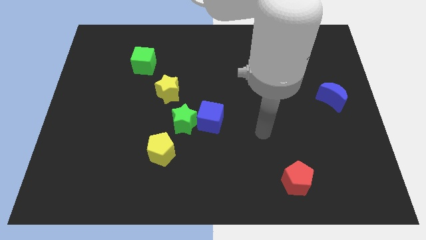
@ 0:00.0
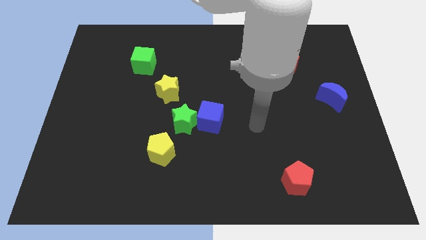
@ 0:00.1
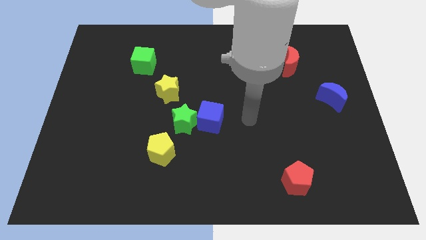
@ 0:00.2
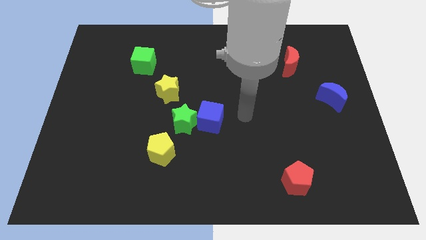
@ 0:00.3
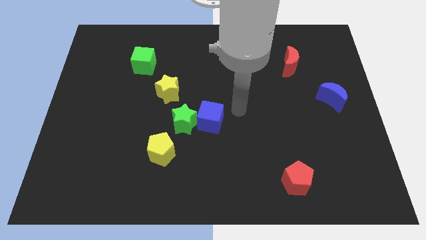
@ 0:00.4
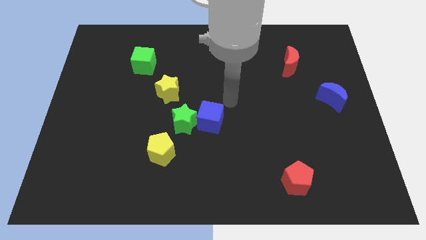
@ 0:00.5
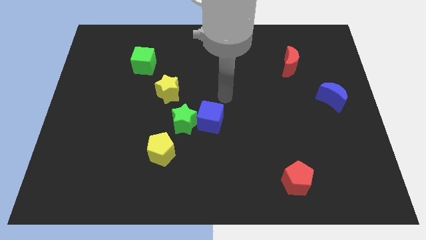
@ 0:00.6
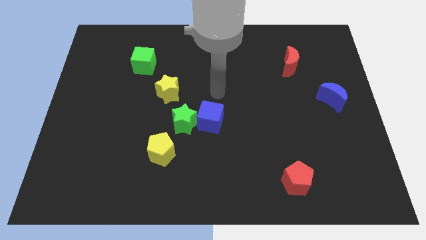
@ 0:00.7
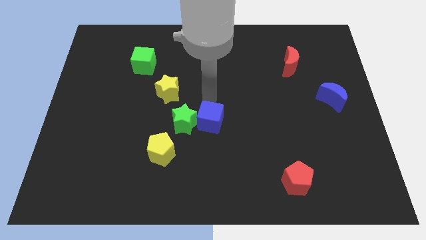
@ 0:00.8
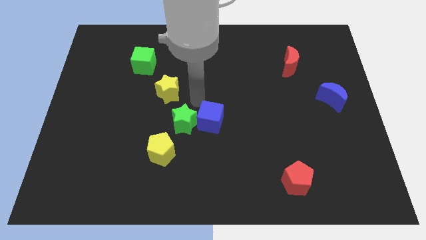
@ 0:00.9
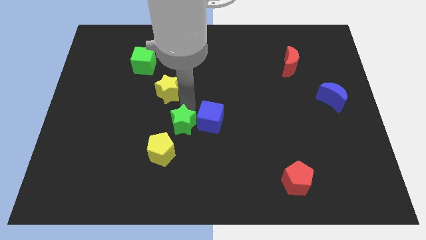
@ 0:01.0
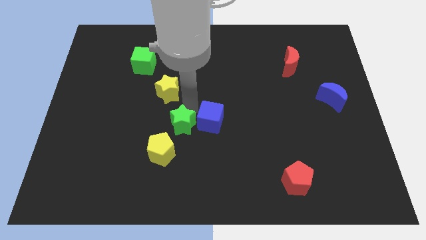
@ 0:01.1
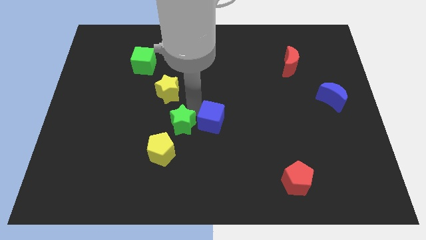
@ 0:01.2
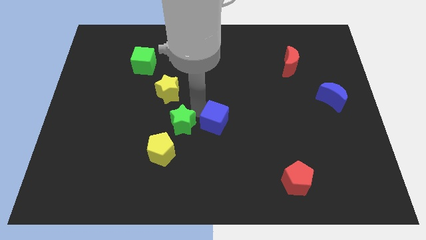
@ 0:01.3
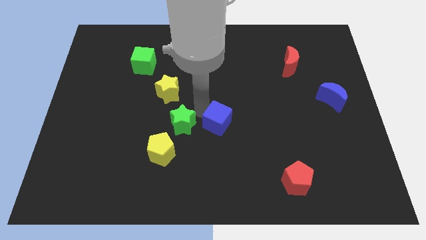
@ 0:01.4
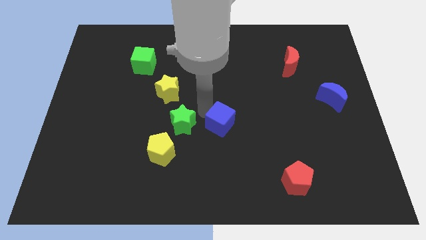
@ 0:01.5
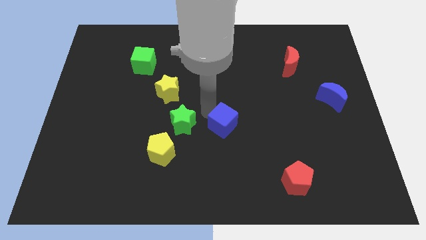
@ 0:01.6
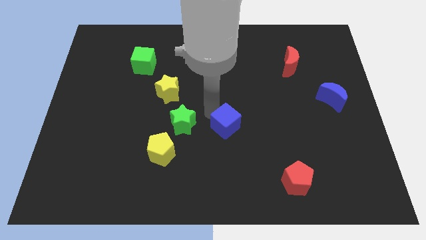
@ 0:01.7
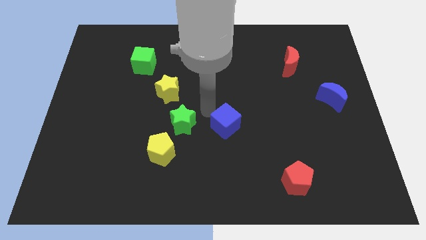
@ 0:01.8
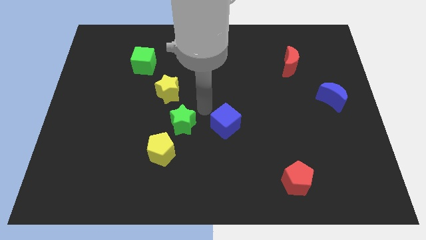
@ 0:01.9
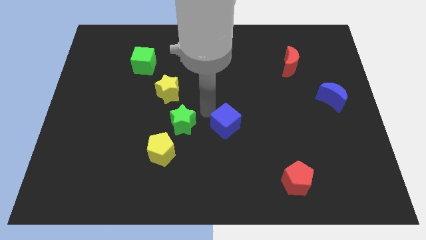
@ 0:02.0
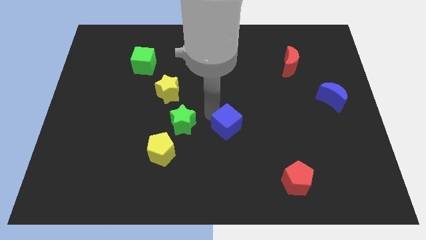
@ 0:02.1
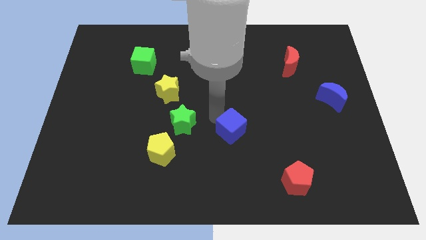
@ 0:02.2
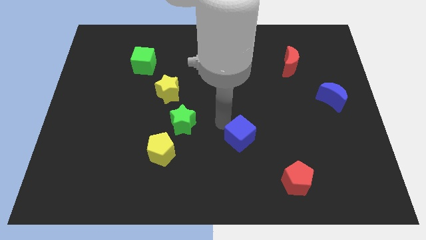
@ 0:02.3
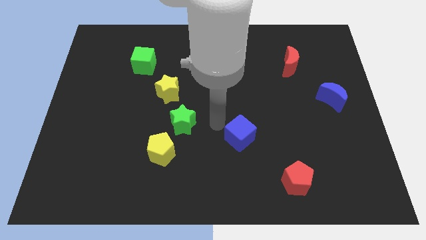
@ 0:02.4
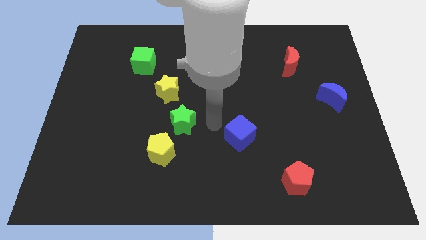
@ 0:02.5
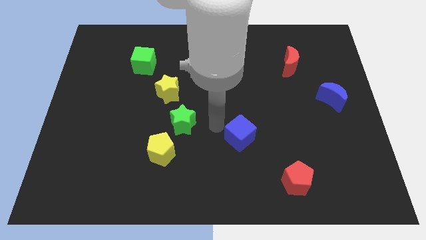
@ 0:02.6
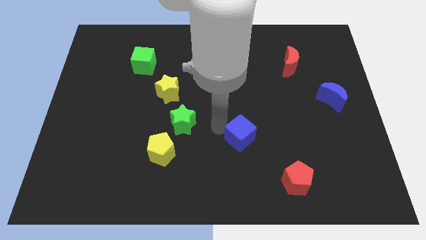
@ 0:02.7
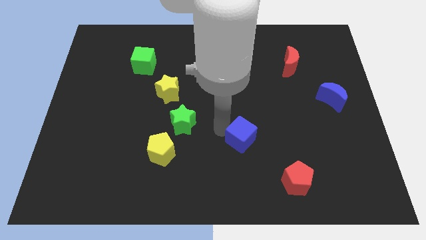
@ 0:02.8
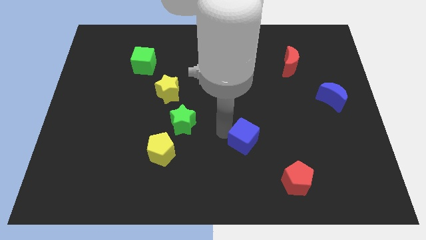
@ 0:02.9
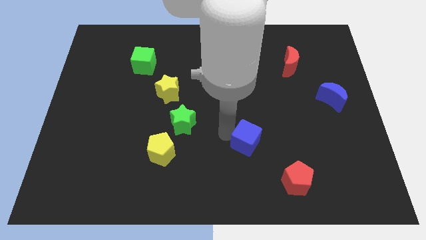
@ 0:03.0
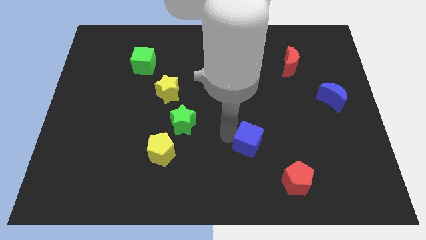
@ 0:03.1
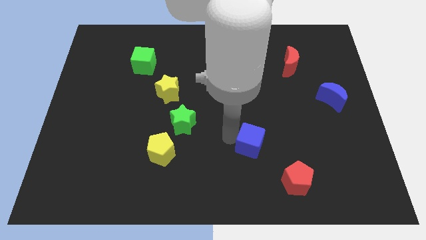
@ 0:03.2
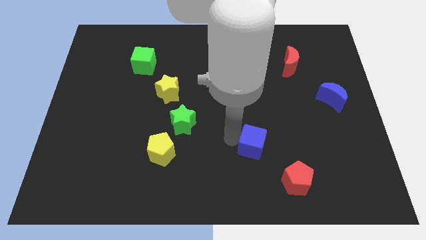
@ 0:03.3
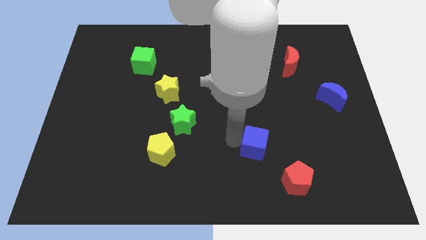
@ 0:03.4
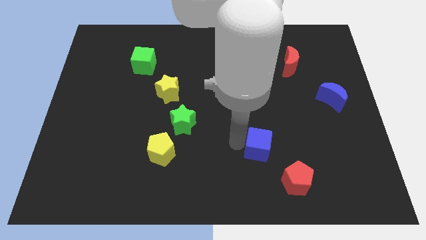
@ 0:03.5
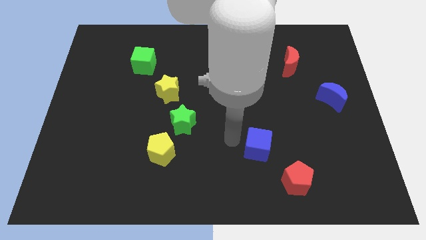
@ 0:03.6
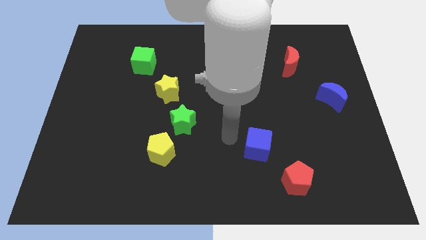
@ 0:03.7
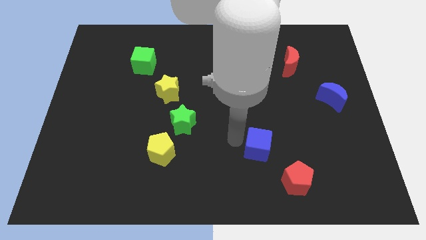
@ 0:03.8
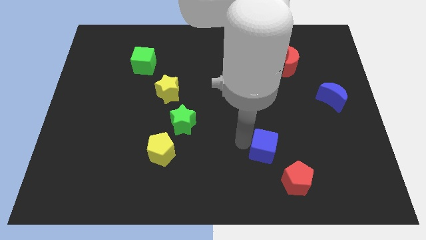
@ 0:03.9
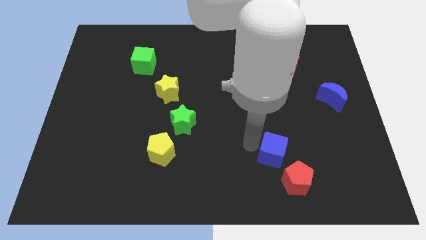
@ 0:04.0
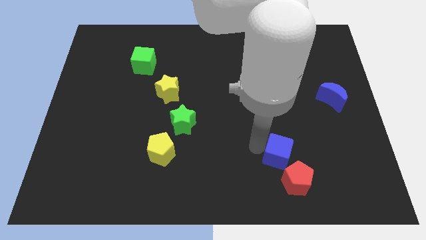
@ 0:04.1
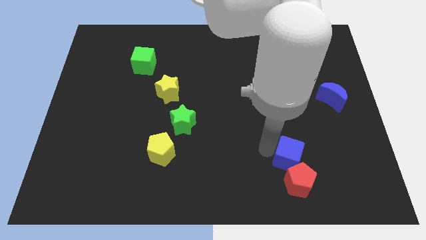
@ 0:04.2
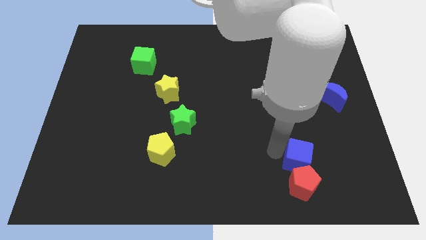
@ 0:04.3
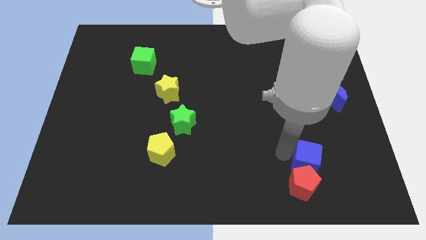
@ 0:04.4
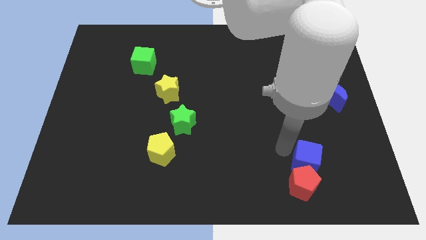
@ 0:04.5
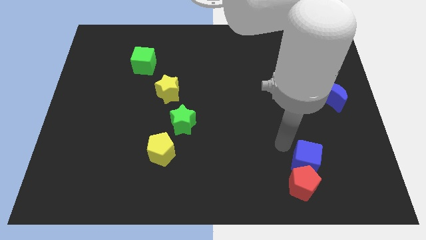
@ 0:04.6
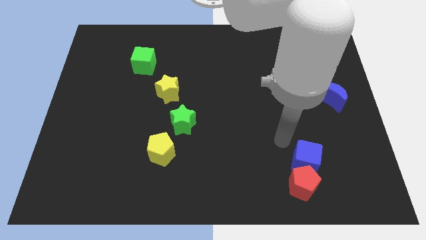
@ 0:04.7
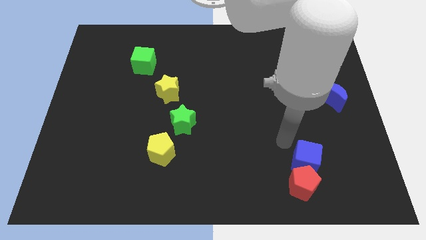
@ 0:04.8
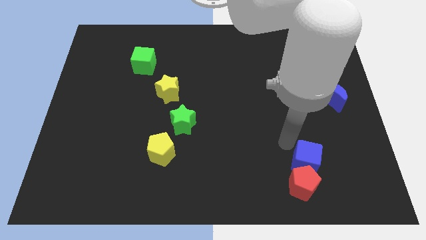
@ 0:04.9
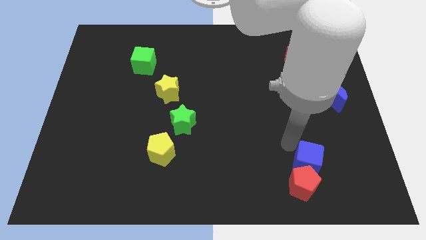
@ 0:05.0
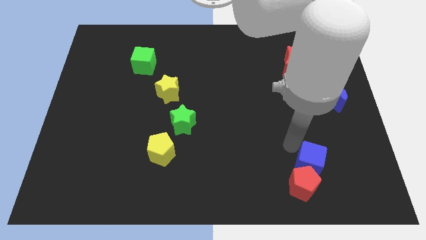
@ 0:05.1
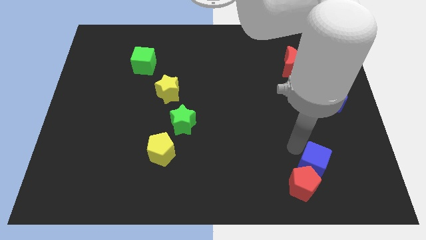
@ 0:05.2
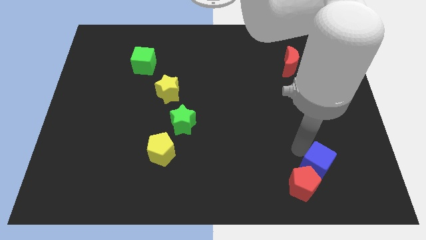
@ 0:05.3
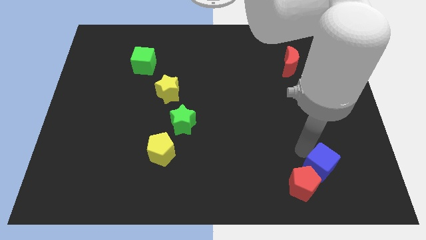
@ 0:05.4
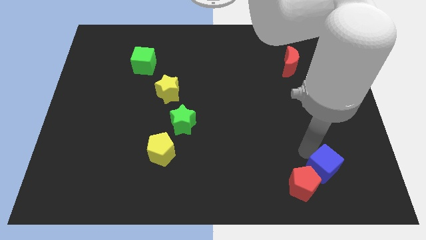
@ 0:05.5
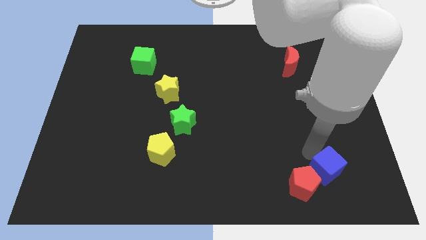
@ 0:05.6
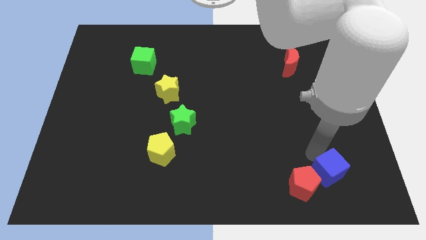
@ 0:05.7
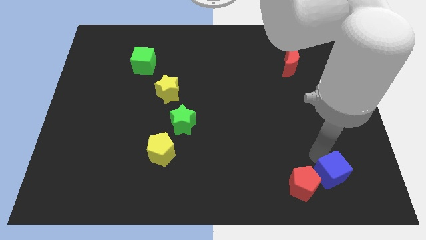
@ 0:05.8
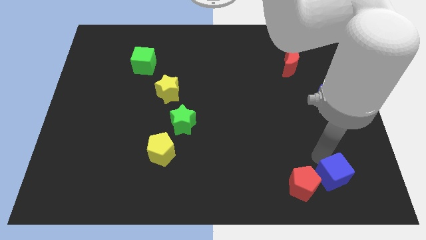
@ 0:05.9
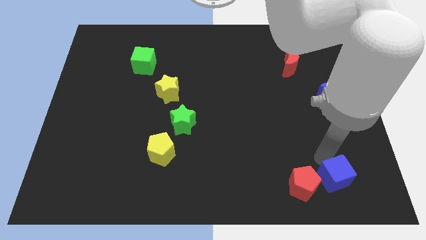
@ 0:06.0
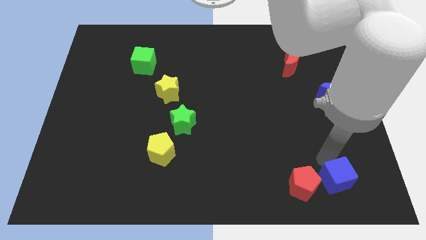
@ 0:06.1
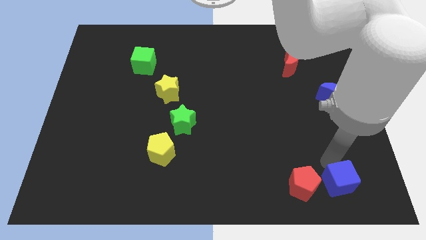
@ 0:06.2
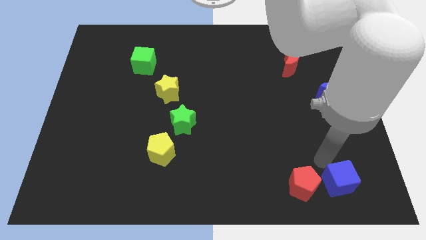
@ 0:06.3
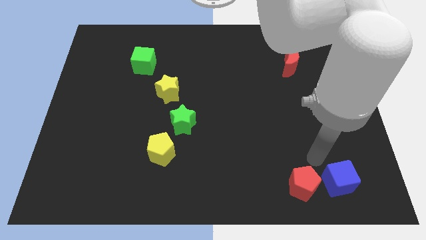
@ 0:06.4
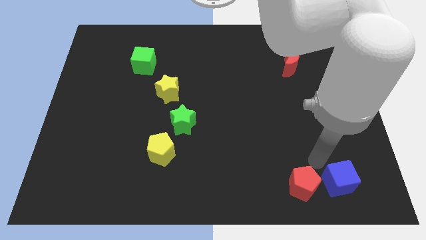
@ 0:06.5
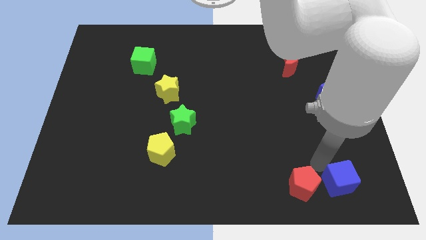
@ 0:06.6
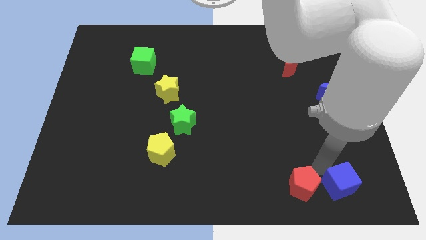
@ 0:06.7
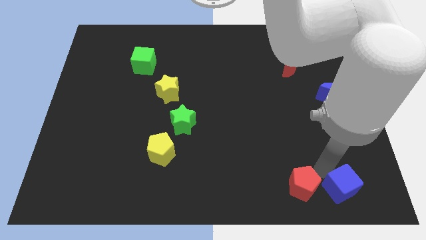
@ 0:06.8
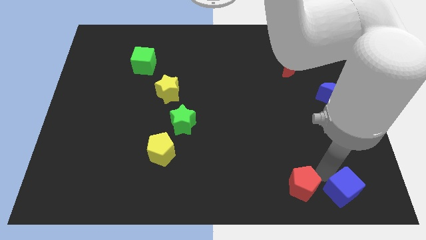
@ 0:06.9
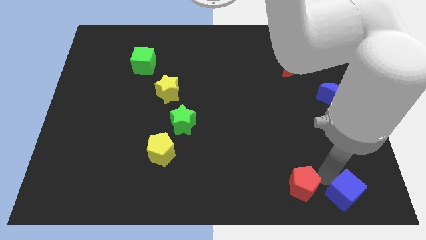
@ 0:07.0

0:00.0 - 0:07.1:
move the blue cube to the lower right corner
